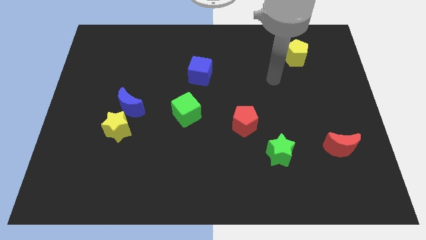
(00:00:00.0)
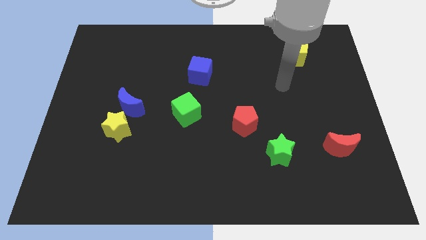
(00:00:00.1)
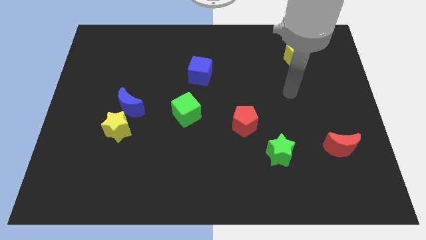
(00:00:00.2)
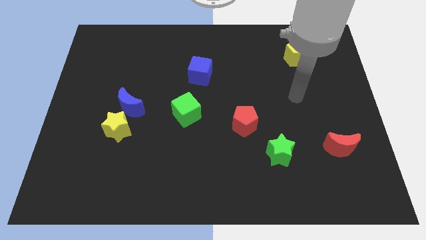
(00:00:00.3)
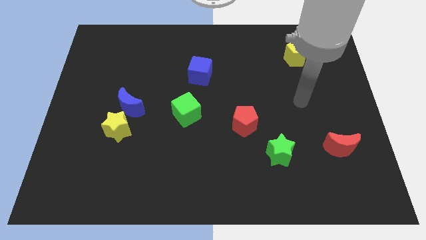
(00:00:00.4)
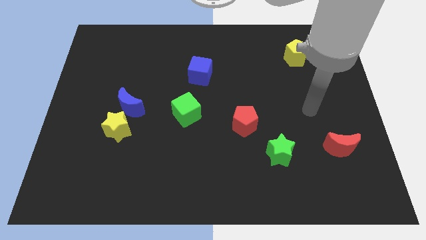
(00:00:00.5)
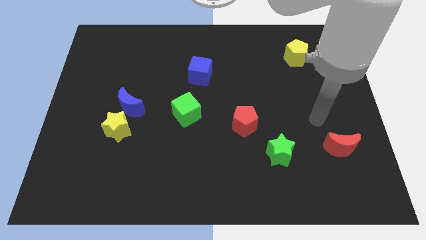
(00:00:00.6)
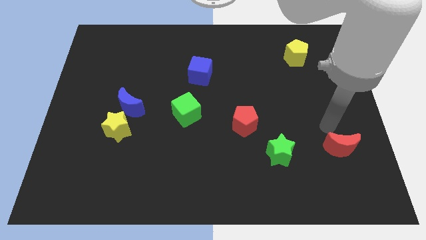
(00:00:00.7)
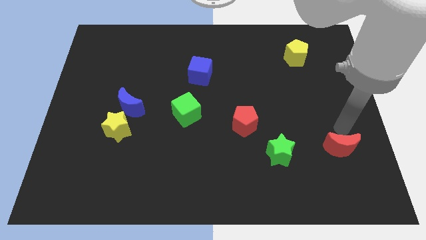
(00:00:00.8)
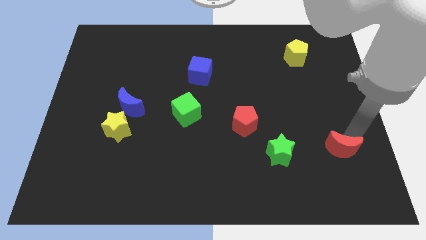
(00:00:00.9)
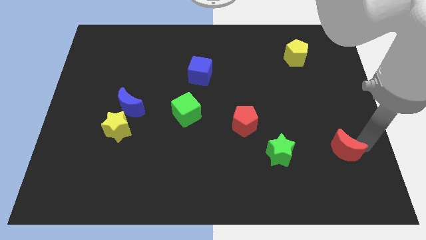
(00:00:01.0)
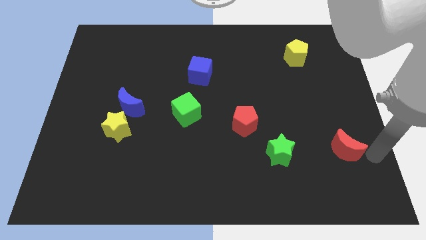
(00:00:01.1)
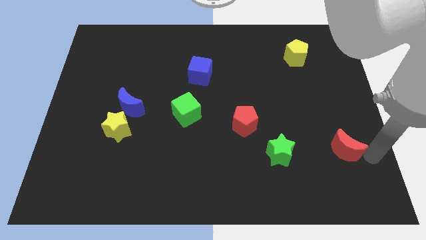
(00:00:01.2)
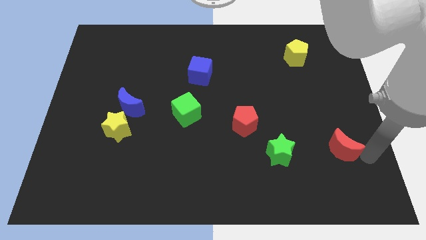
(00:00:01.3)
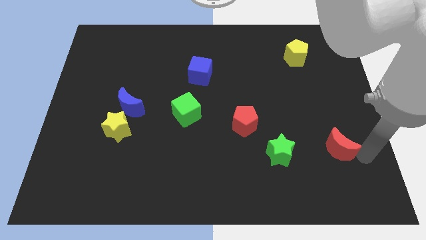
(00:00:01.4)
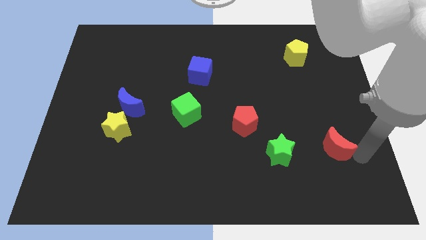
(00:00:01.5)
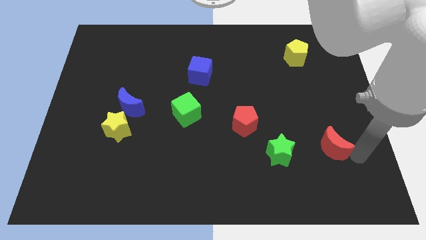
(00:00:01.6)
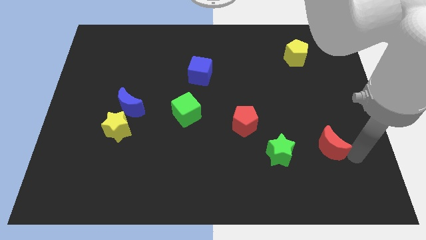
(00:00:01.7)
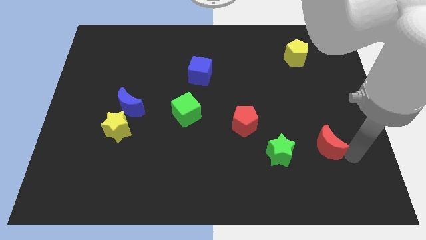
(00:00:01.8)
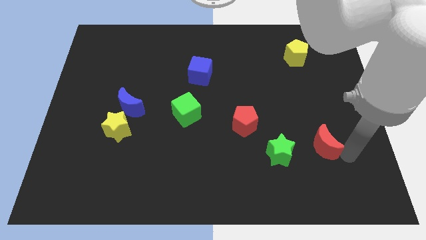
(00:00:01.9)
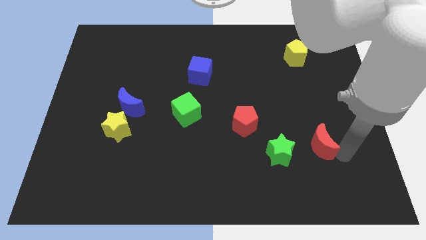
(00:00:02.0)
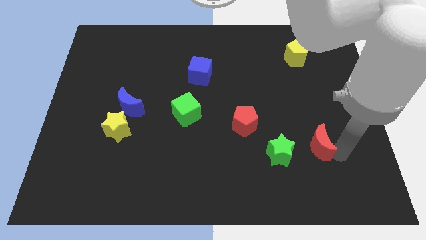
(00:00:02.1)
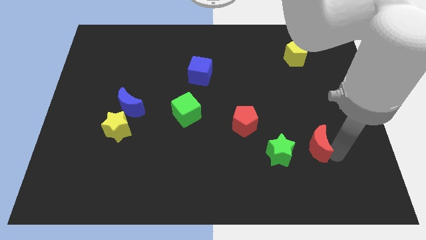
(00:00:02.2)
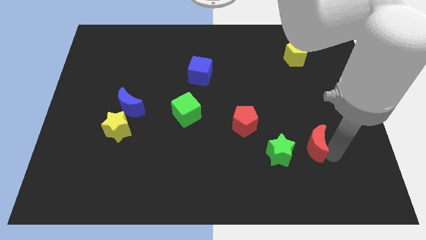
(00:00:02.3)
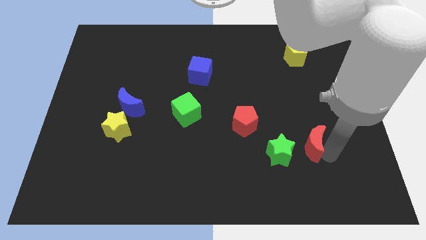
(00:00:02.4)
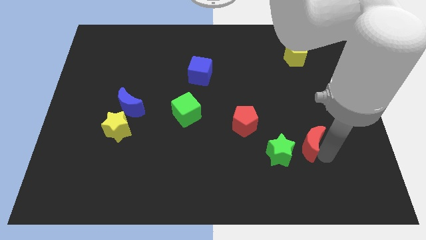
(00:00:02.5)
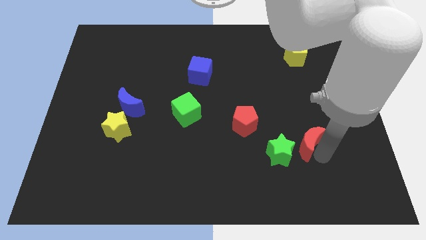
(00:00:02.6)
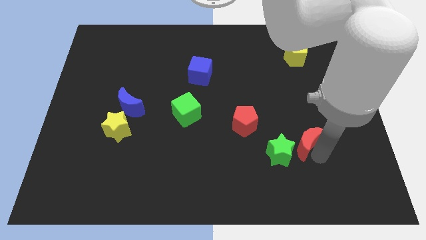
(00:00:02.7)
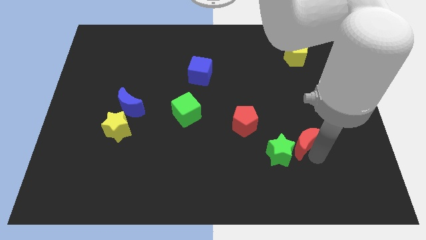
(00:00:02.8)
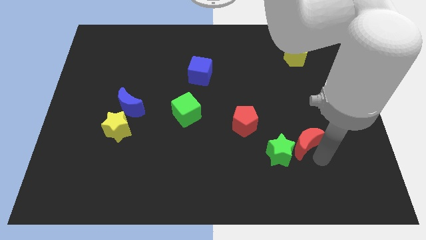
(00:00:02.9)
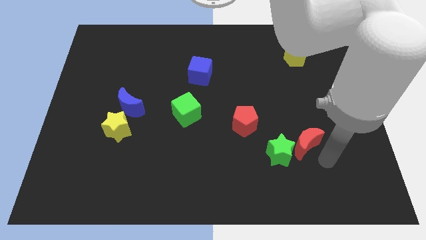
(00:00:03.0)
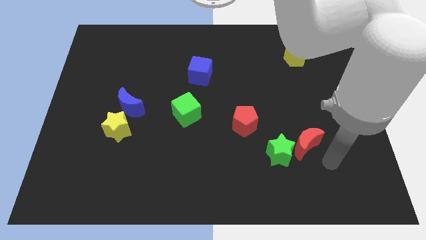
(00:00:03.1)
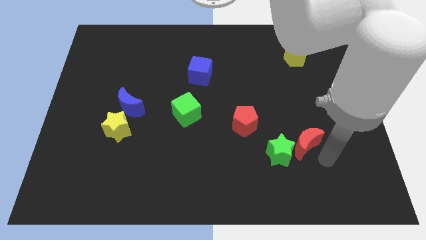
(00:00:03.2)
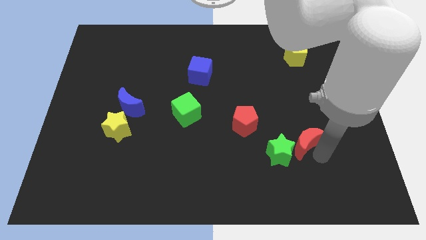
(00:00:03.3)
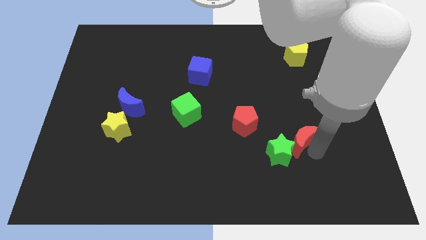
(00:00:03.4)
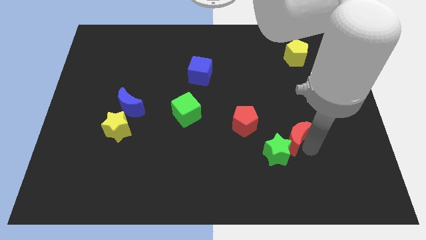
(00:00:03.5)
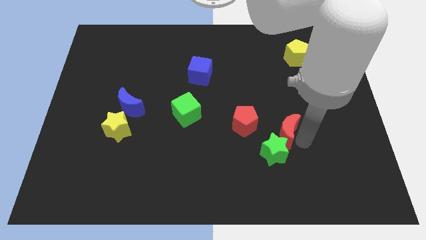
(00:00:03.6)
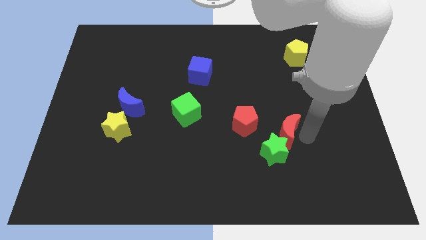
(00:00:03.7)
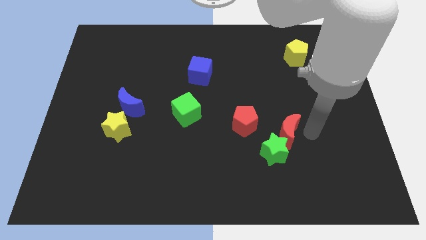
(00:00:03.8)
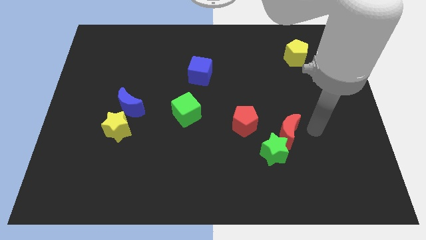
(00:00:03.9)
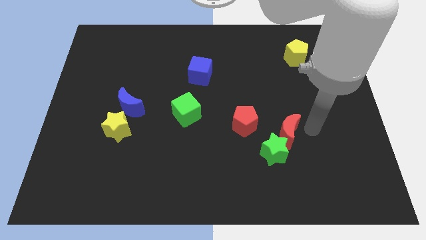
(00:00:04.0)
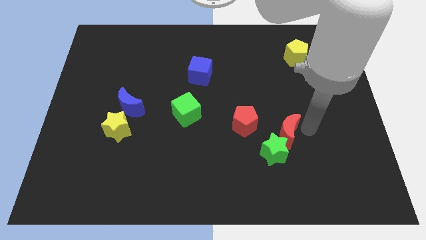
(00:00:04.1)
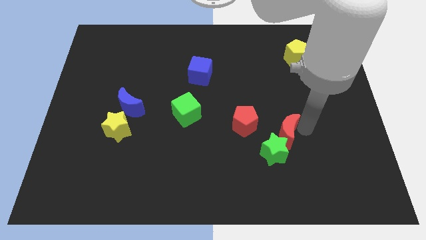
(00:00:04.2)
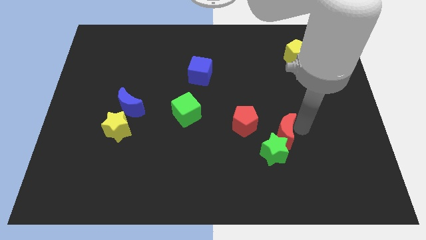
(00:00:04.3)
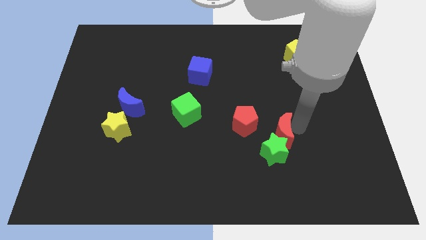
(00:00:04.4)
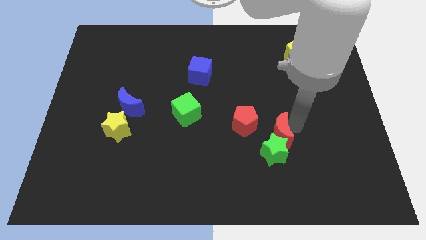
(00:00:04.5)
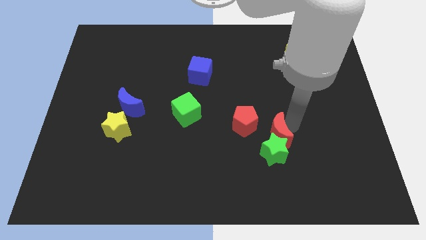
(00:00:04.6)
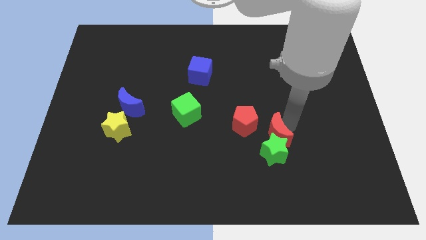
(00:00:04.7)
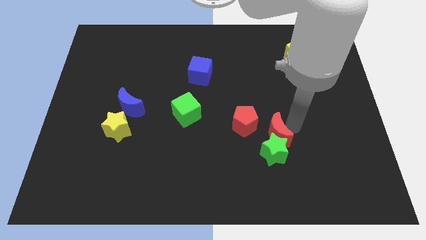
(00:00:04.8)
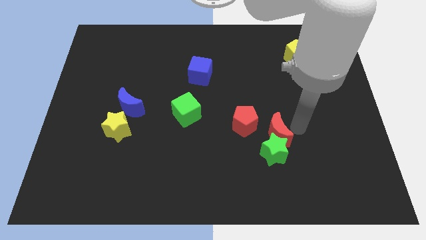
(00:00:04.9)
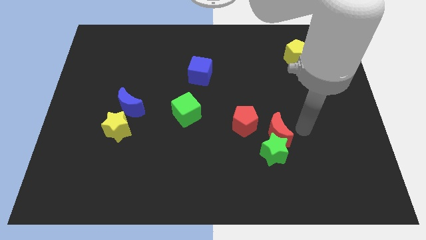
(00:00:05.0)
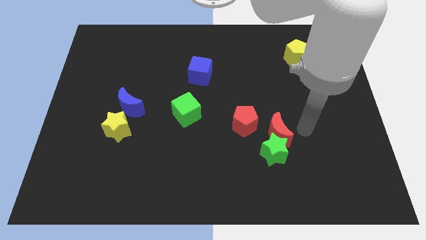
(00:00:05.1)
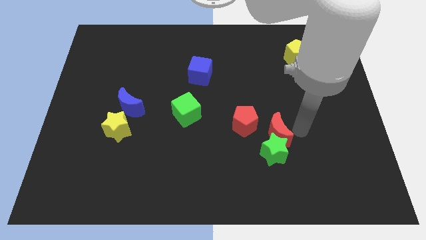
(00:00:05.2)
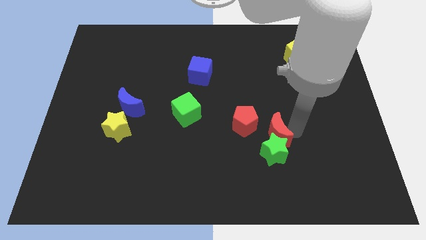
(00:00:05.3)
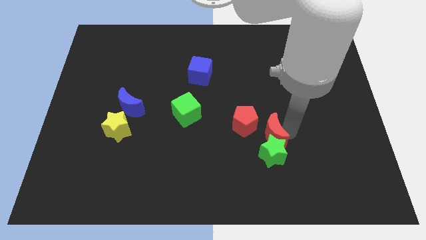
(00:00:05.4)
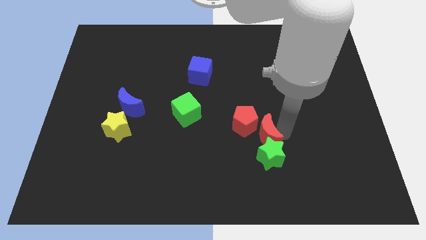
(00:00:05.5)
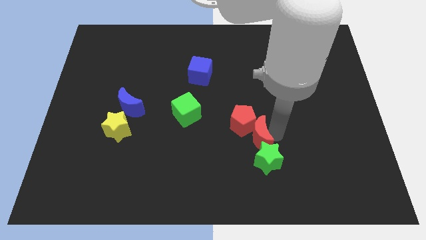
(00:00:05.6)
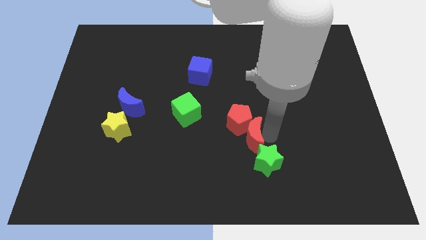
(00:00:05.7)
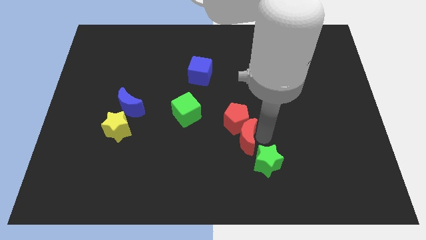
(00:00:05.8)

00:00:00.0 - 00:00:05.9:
push the red moon to the left

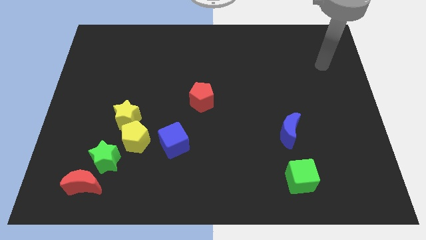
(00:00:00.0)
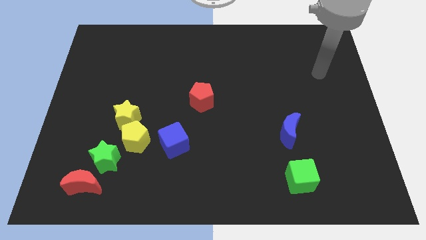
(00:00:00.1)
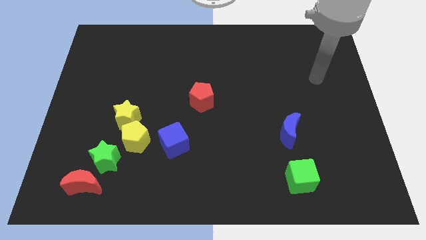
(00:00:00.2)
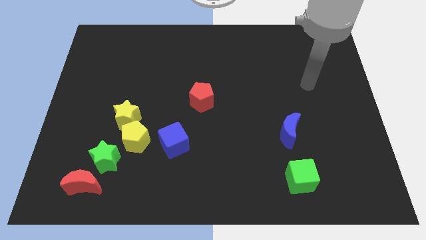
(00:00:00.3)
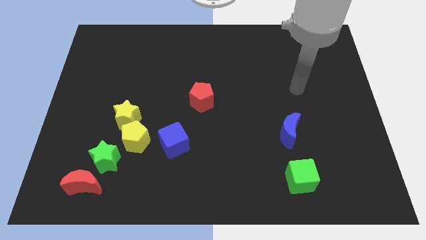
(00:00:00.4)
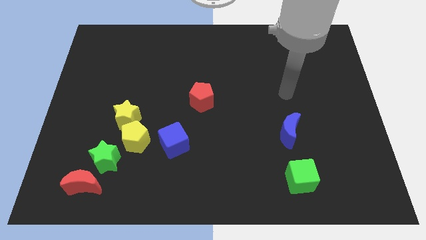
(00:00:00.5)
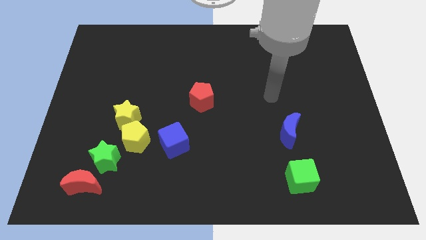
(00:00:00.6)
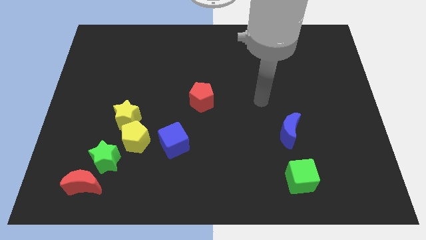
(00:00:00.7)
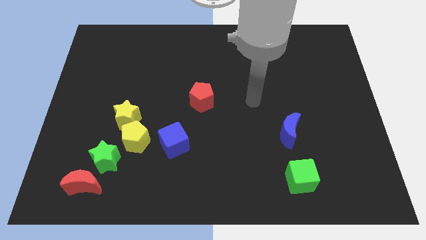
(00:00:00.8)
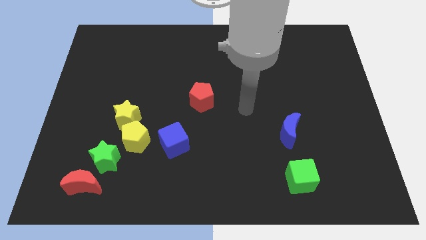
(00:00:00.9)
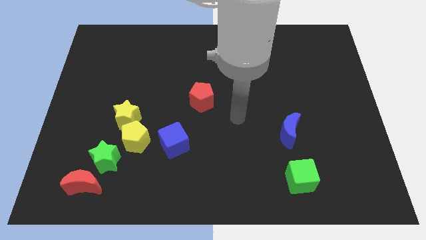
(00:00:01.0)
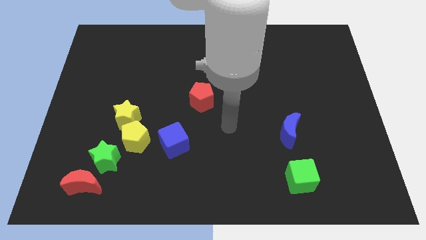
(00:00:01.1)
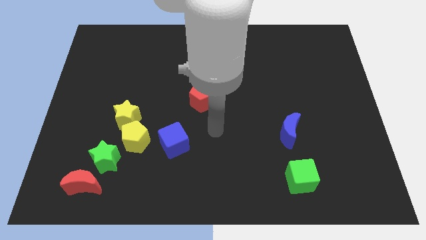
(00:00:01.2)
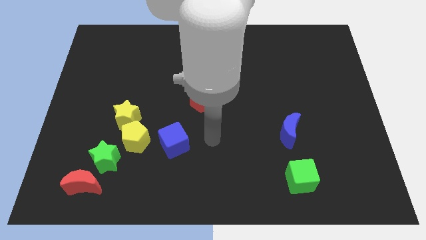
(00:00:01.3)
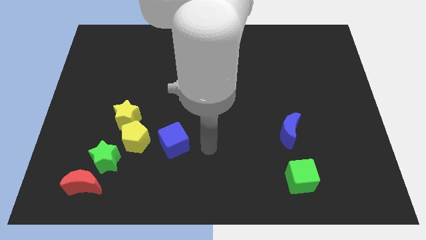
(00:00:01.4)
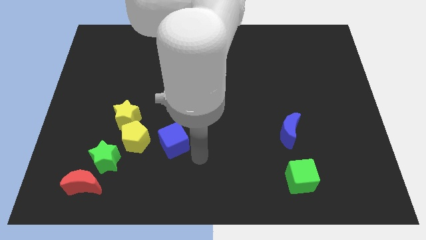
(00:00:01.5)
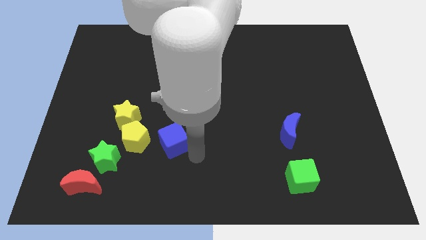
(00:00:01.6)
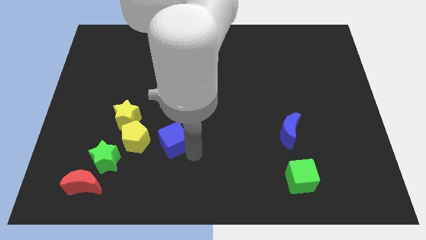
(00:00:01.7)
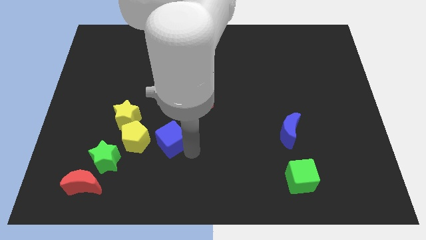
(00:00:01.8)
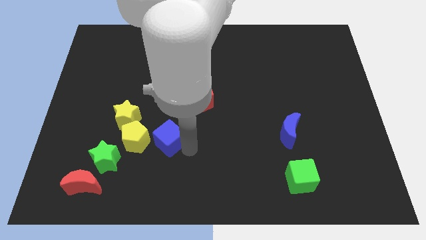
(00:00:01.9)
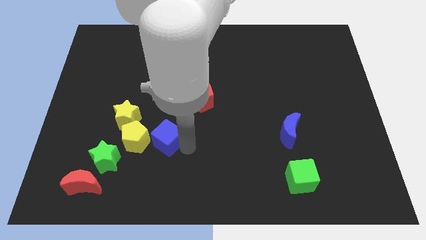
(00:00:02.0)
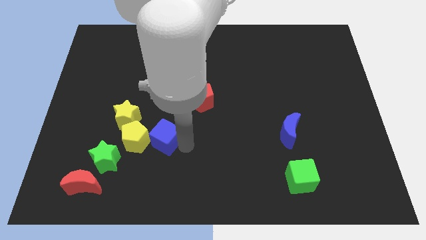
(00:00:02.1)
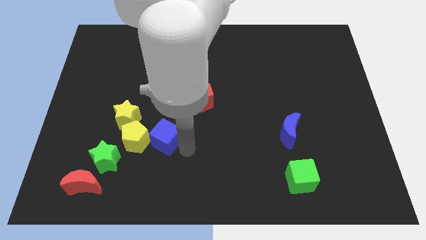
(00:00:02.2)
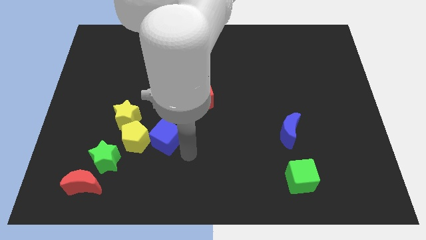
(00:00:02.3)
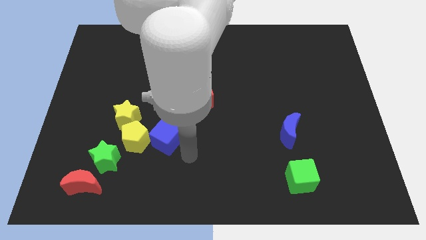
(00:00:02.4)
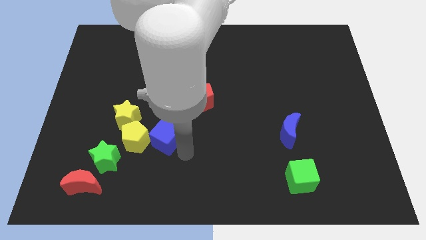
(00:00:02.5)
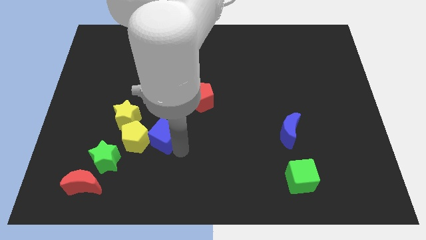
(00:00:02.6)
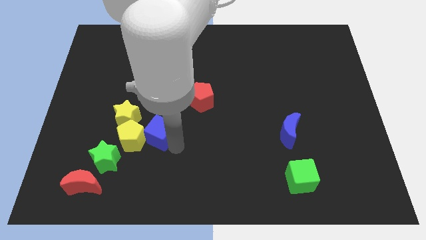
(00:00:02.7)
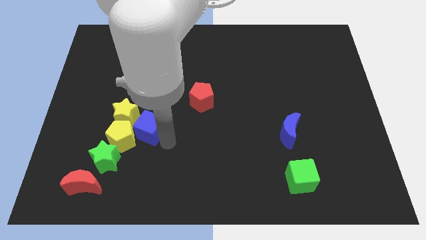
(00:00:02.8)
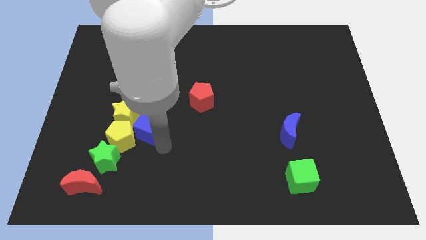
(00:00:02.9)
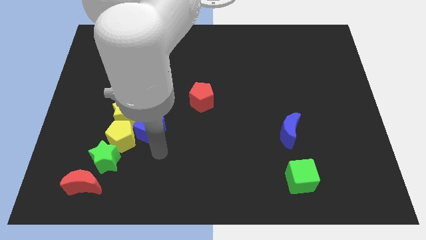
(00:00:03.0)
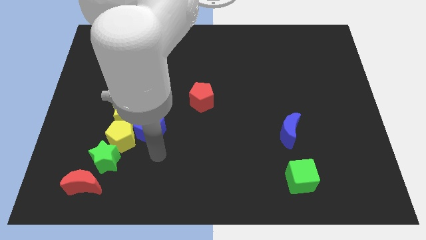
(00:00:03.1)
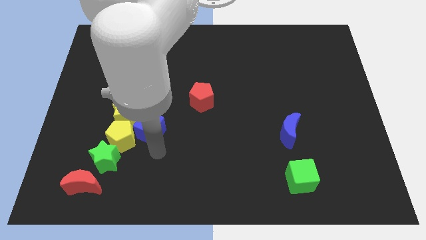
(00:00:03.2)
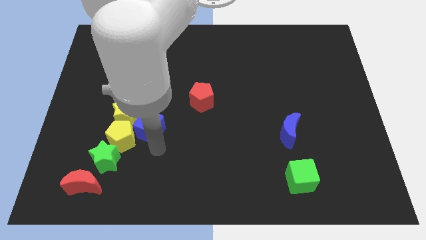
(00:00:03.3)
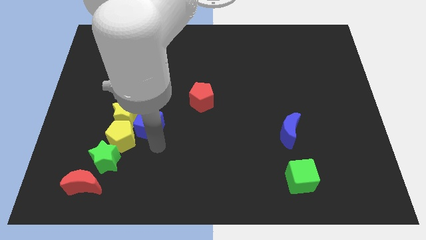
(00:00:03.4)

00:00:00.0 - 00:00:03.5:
push the blue cube upwards and then to the left a bit
